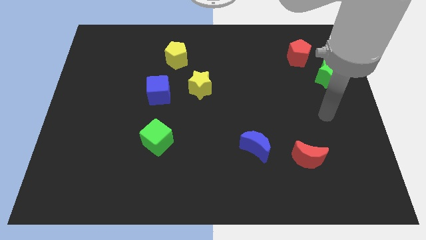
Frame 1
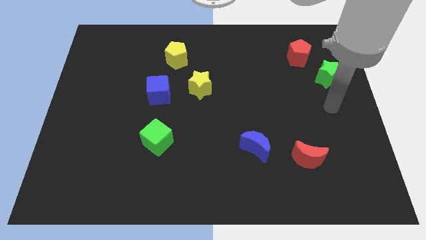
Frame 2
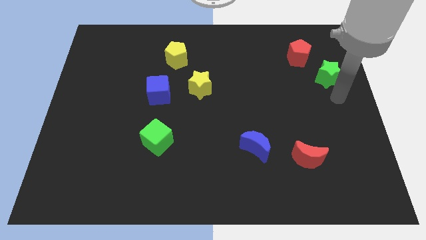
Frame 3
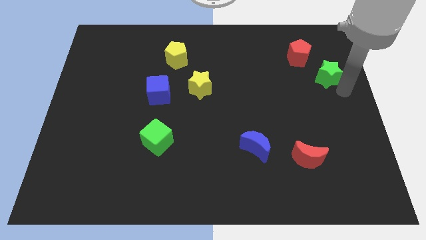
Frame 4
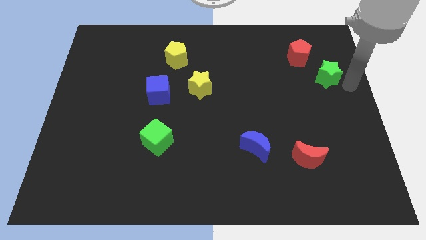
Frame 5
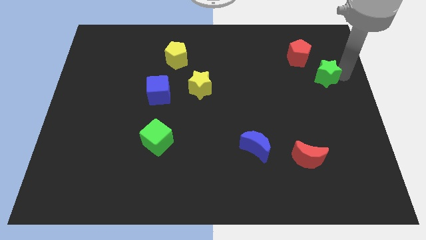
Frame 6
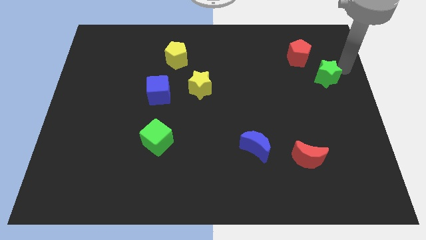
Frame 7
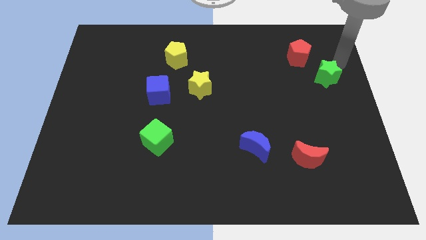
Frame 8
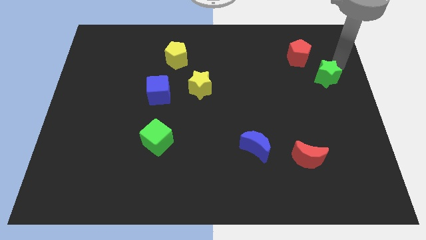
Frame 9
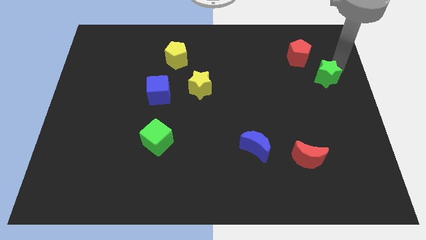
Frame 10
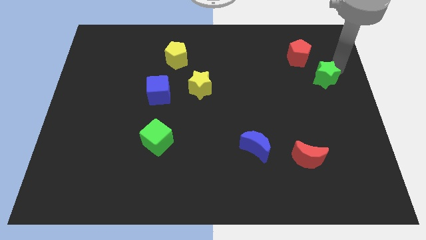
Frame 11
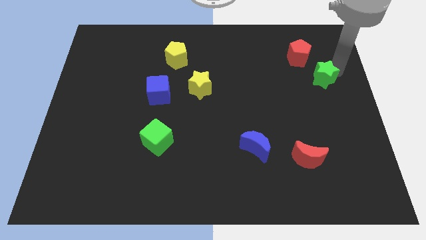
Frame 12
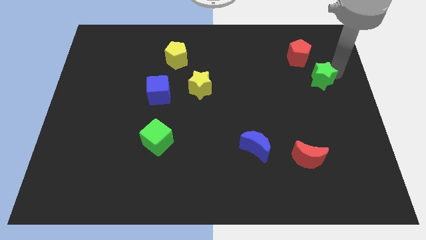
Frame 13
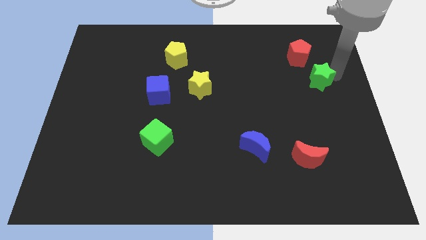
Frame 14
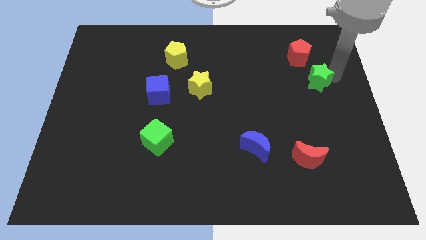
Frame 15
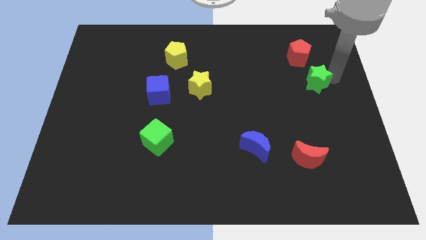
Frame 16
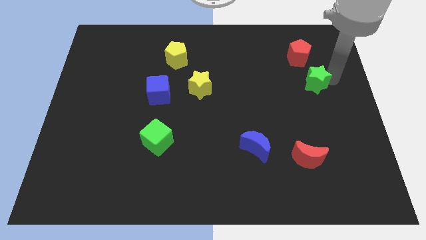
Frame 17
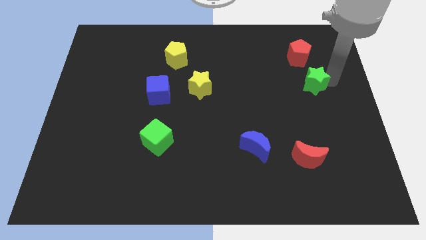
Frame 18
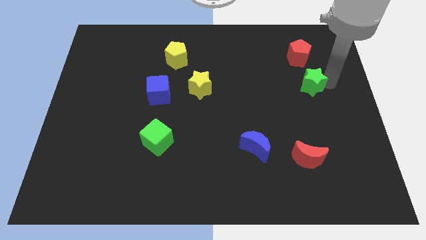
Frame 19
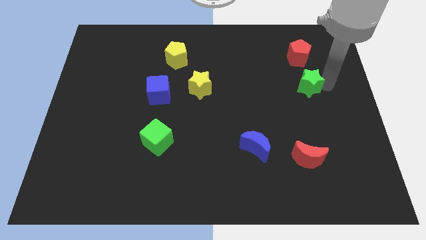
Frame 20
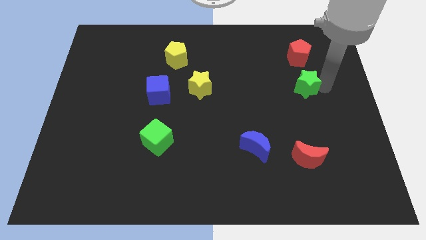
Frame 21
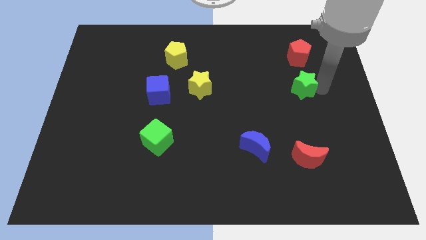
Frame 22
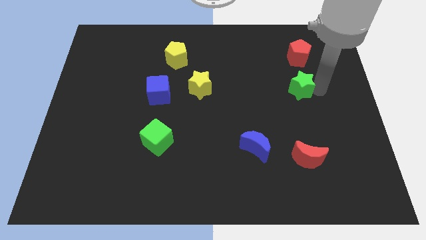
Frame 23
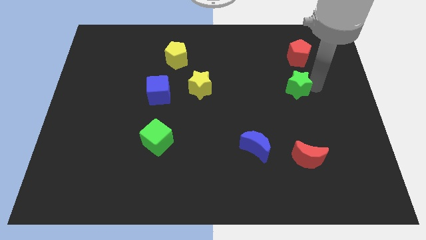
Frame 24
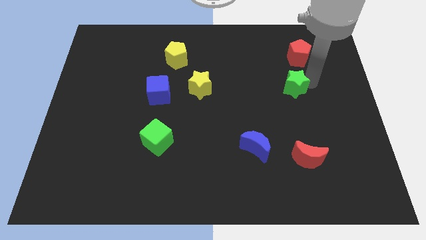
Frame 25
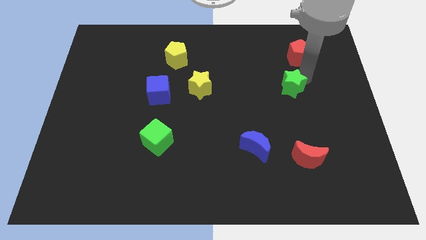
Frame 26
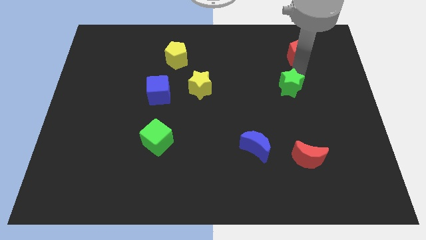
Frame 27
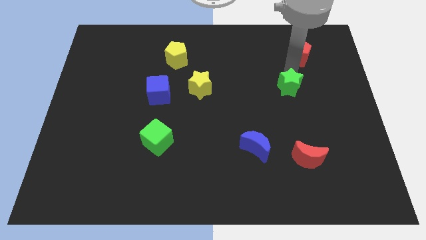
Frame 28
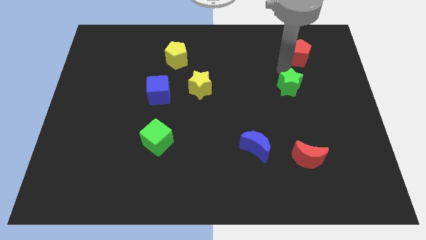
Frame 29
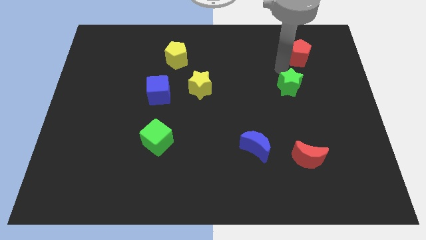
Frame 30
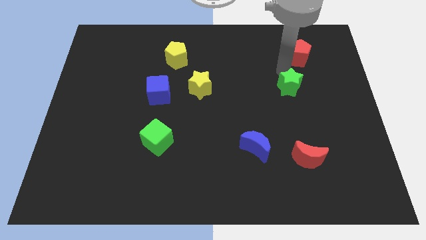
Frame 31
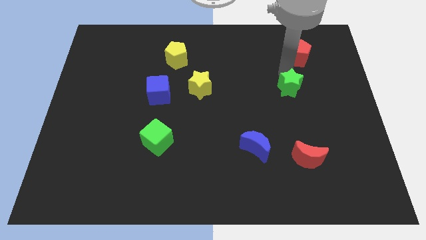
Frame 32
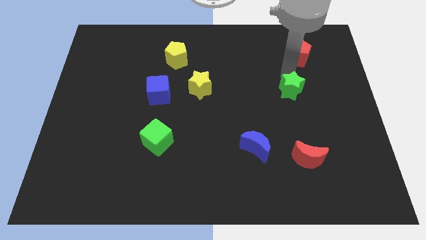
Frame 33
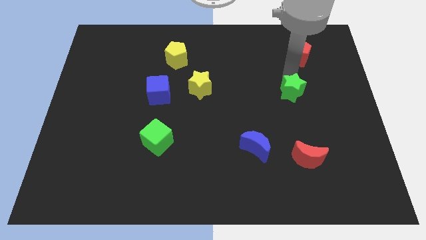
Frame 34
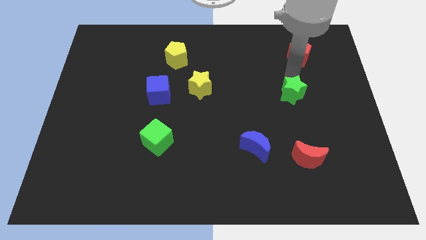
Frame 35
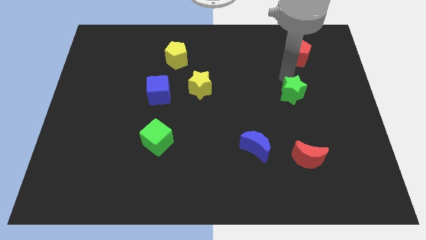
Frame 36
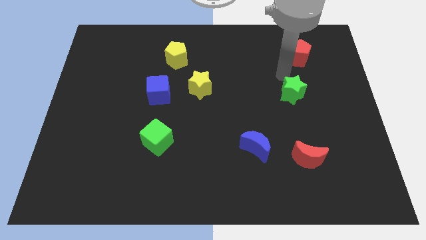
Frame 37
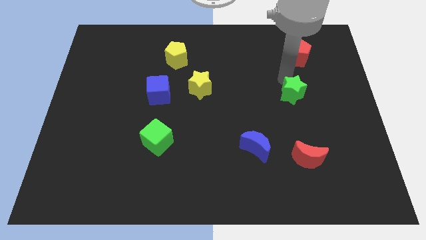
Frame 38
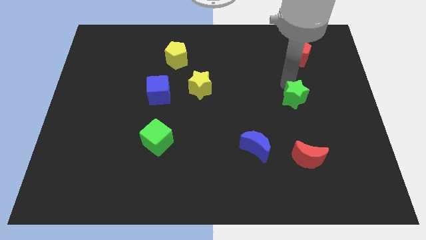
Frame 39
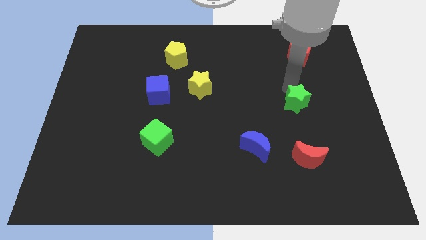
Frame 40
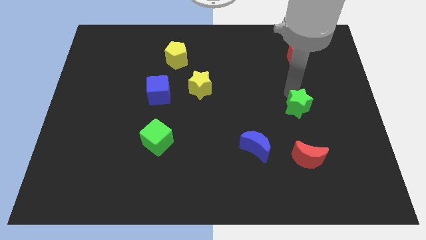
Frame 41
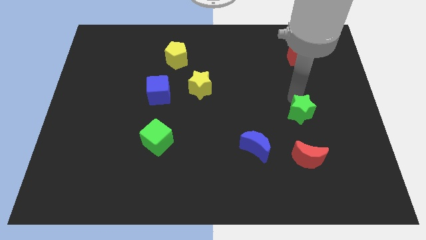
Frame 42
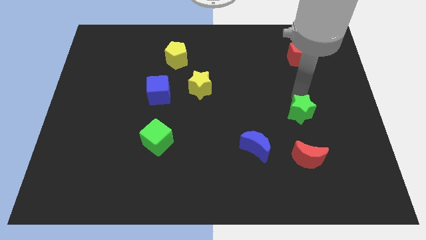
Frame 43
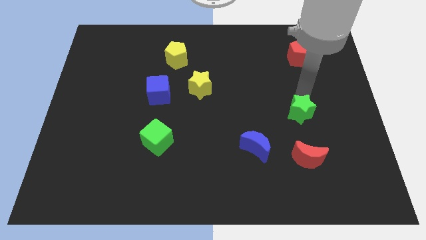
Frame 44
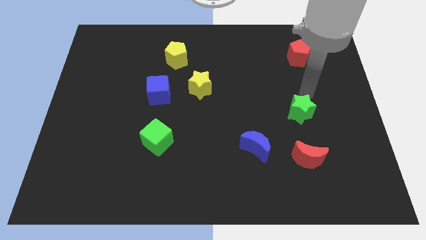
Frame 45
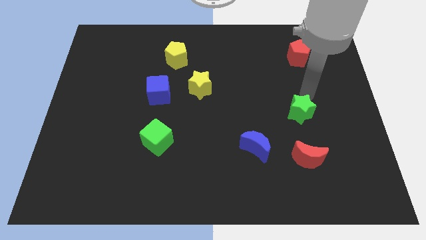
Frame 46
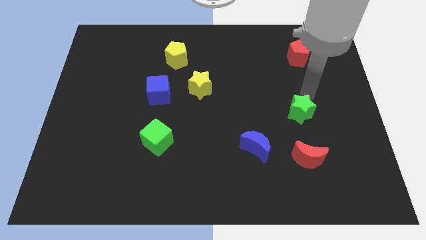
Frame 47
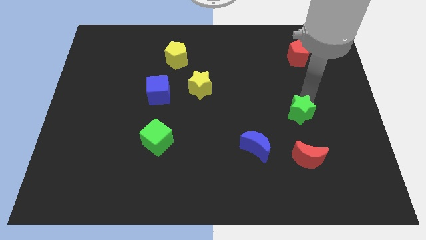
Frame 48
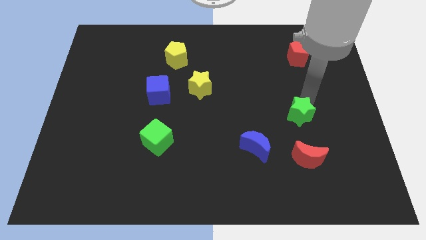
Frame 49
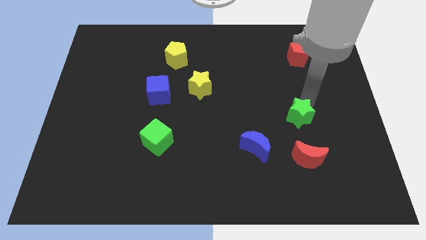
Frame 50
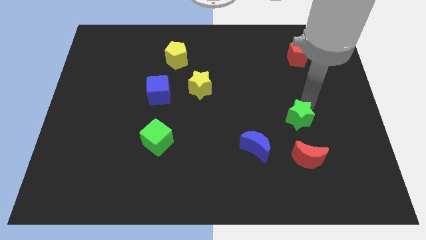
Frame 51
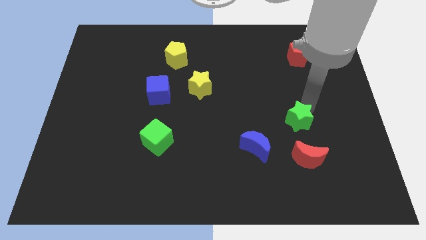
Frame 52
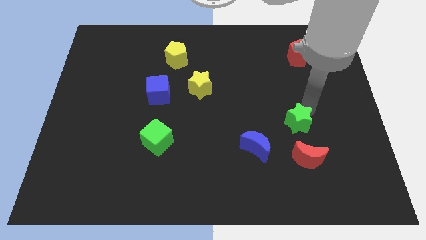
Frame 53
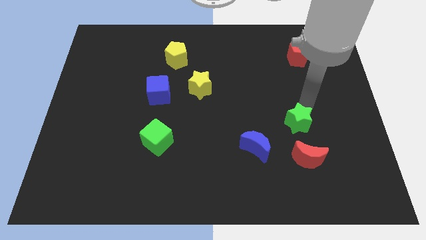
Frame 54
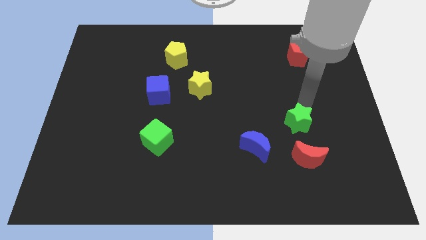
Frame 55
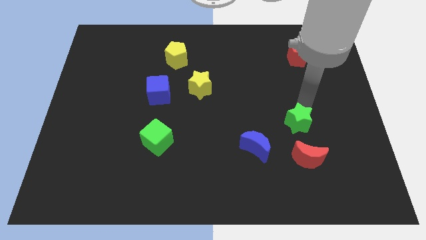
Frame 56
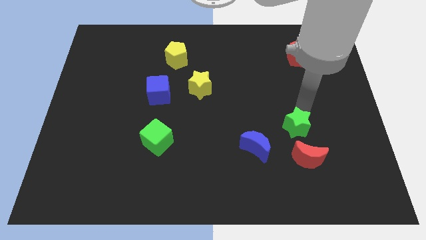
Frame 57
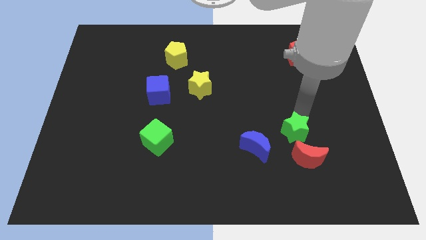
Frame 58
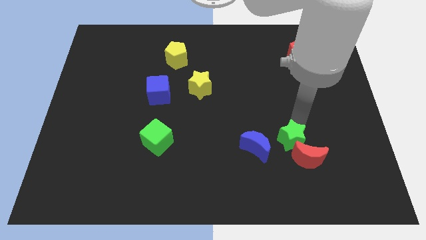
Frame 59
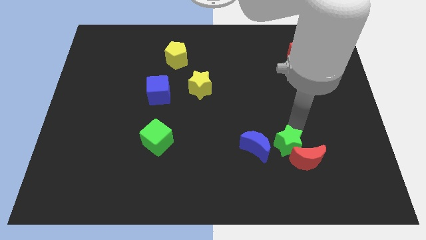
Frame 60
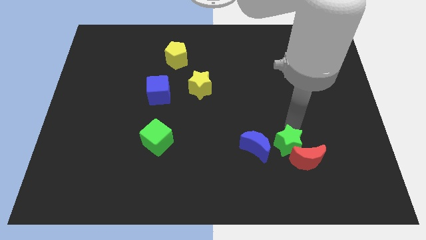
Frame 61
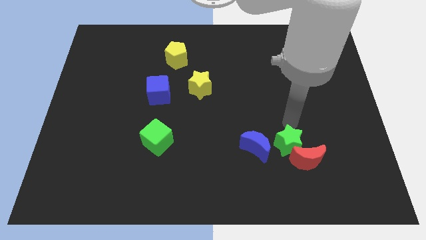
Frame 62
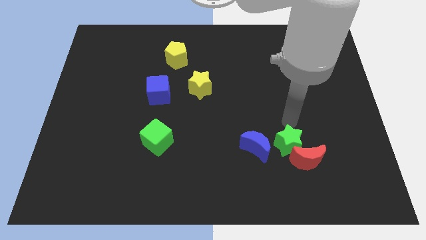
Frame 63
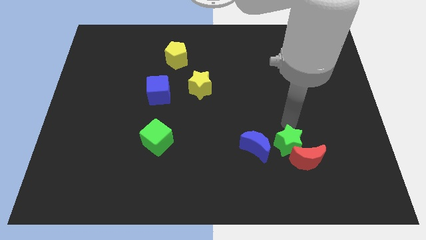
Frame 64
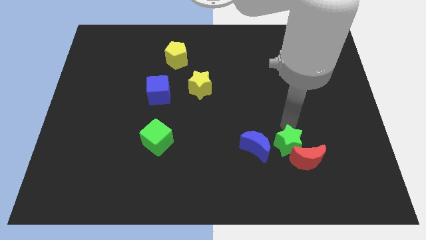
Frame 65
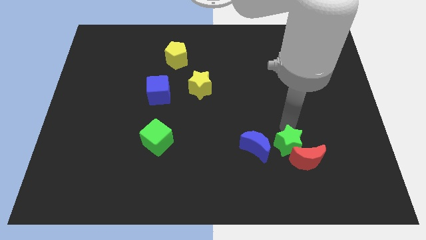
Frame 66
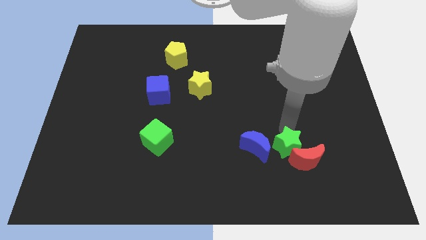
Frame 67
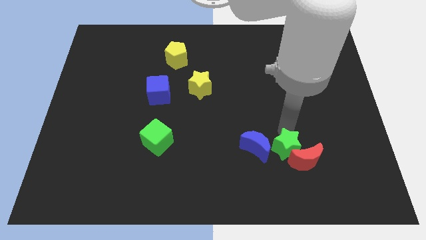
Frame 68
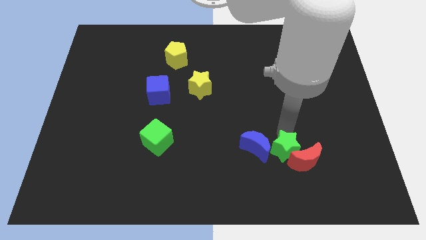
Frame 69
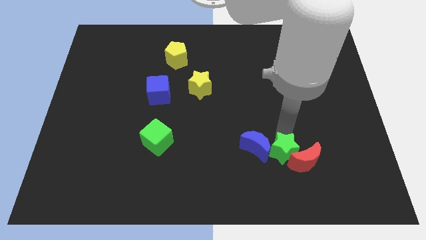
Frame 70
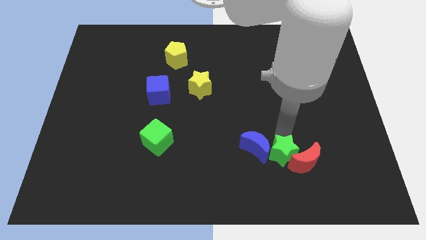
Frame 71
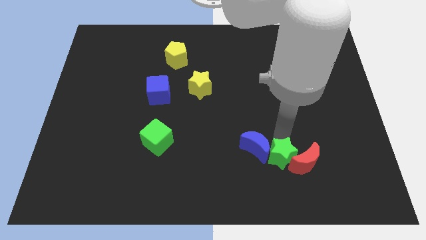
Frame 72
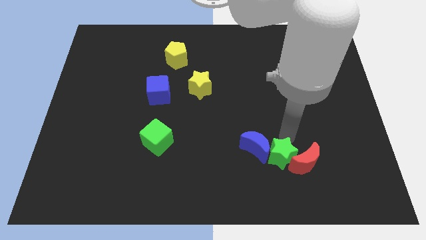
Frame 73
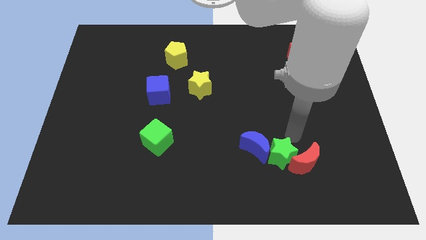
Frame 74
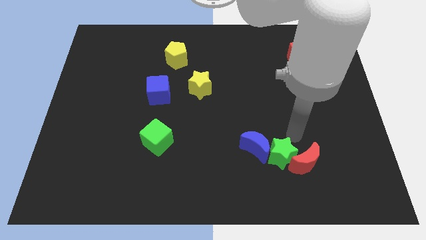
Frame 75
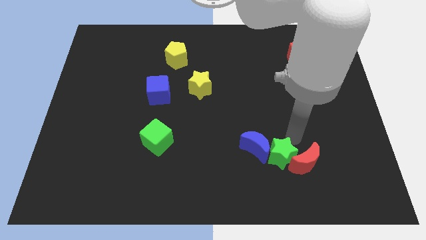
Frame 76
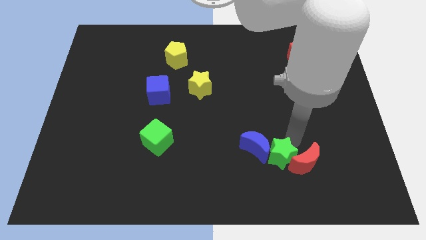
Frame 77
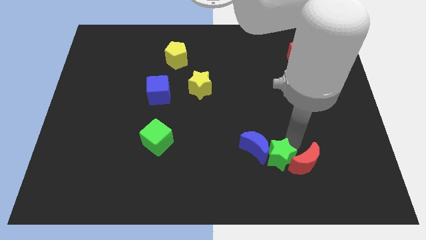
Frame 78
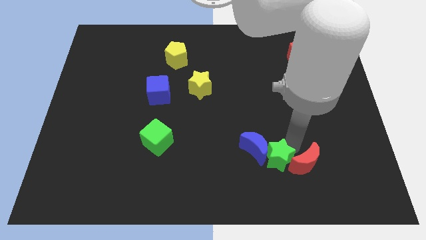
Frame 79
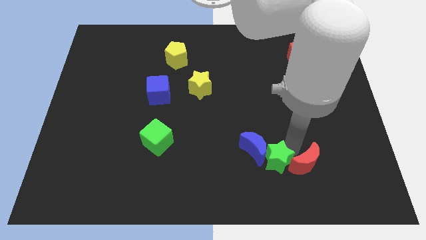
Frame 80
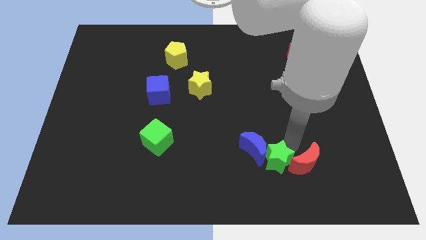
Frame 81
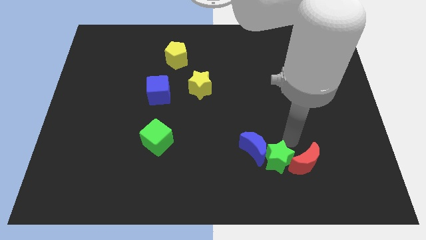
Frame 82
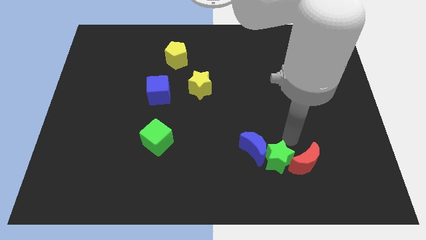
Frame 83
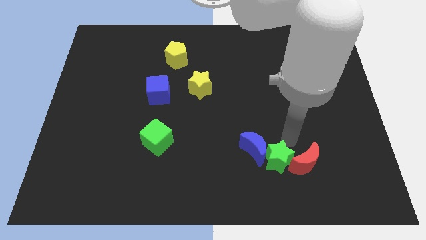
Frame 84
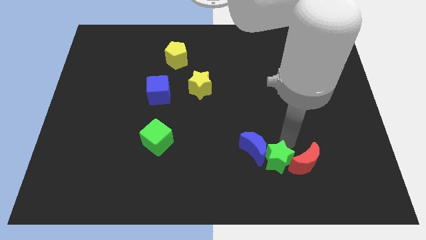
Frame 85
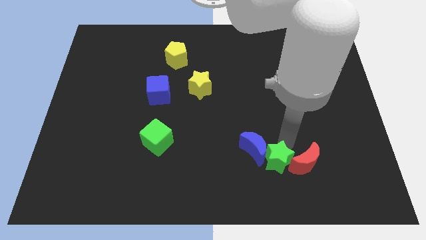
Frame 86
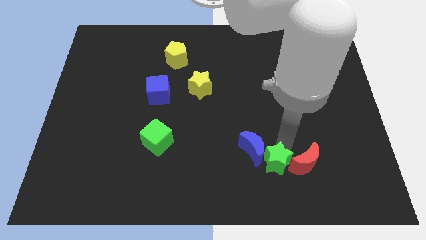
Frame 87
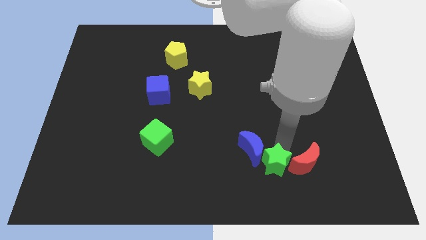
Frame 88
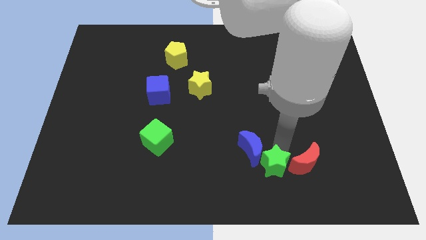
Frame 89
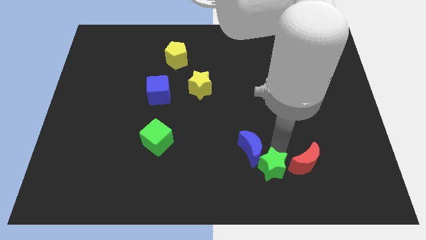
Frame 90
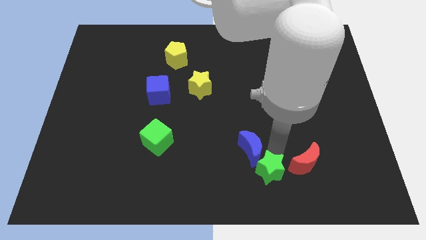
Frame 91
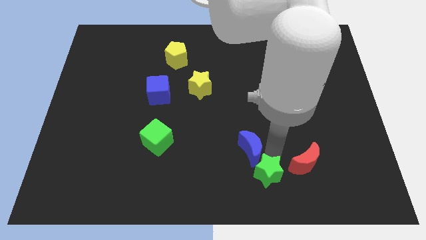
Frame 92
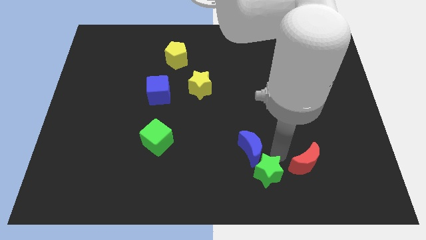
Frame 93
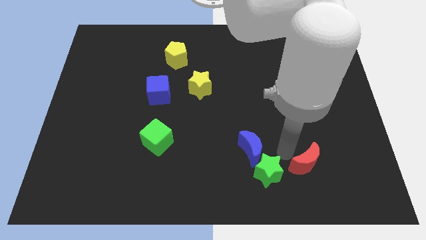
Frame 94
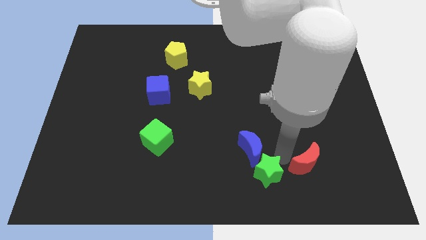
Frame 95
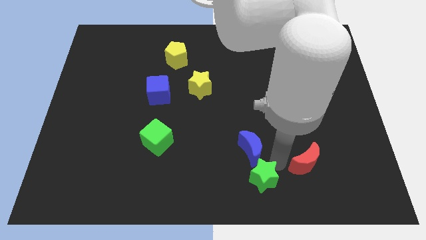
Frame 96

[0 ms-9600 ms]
push the green star to the bottom side
